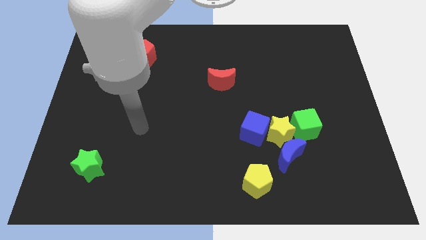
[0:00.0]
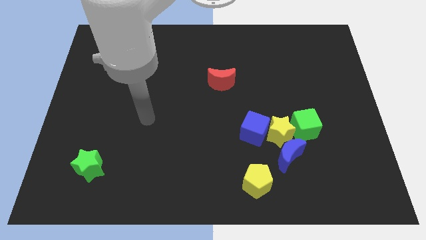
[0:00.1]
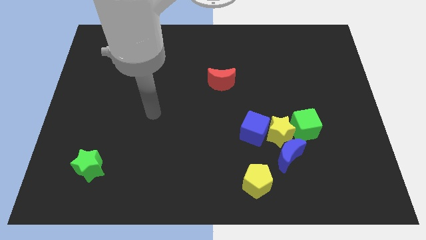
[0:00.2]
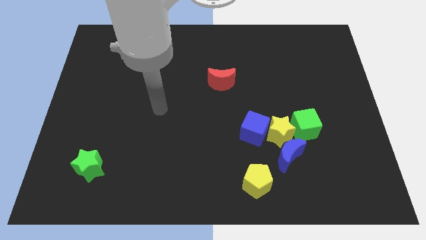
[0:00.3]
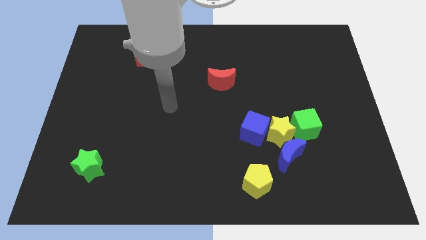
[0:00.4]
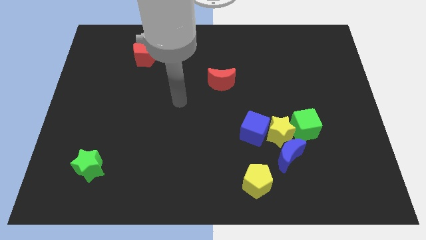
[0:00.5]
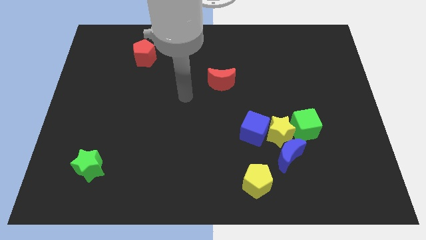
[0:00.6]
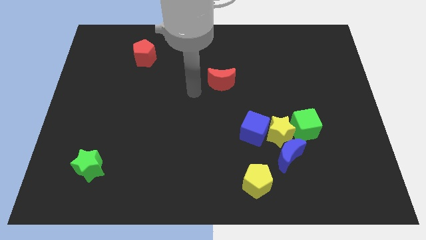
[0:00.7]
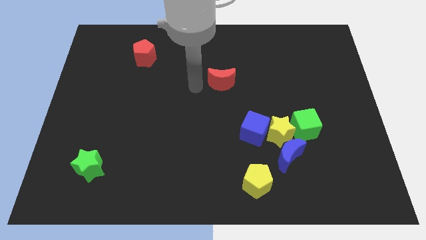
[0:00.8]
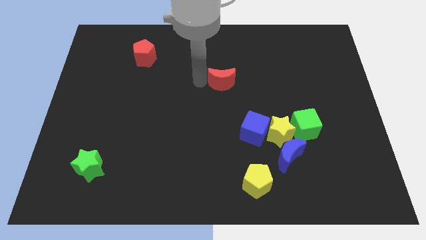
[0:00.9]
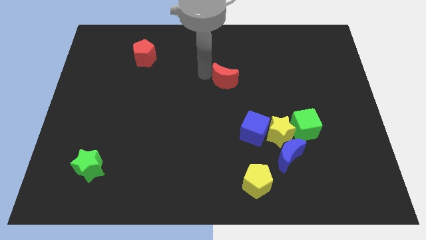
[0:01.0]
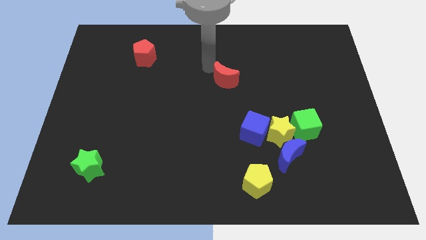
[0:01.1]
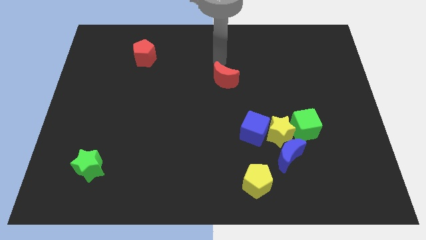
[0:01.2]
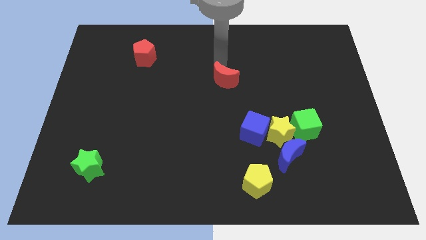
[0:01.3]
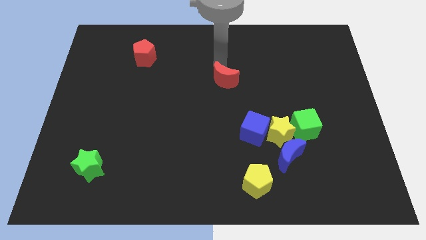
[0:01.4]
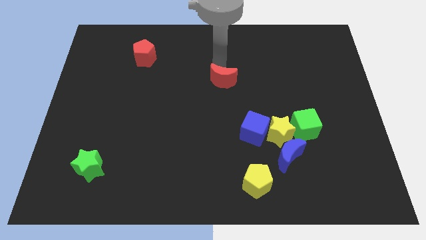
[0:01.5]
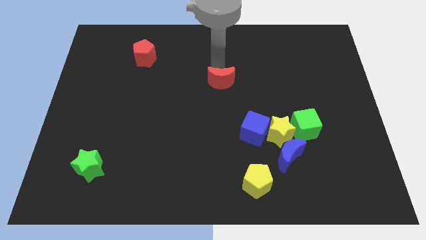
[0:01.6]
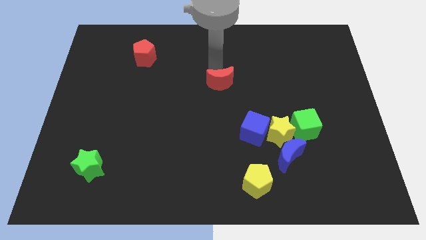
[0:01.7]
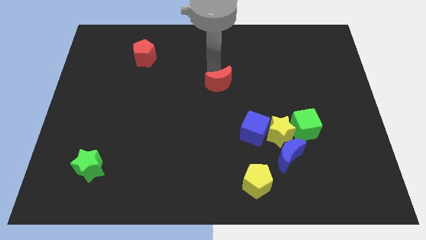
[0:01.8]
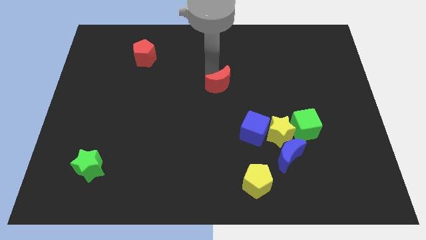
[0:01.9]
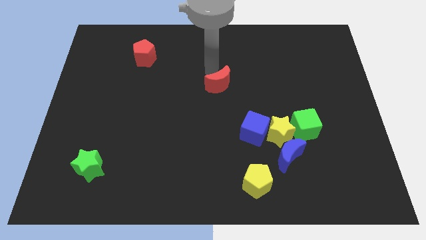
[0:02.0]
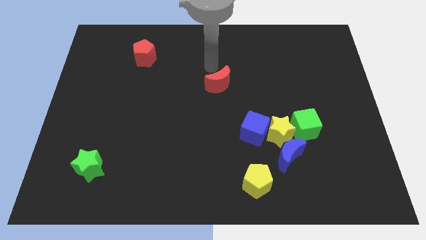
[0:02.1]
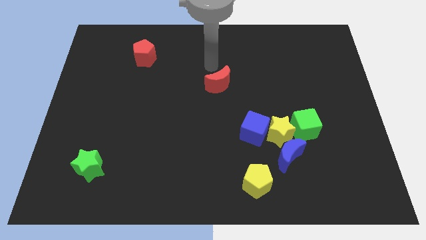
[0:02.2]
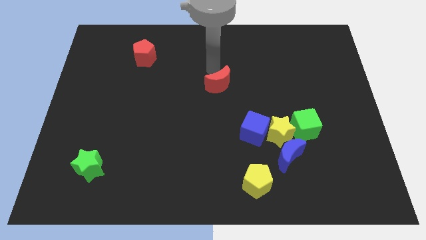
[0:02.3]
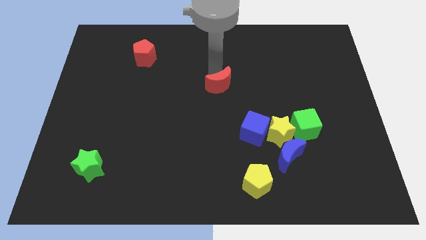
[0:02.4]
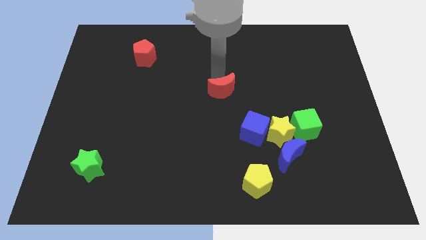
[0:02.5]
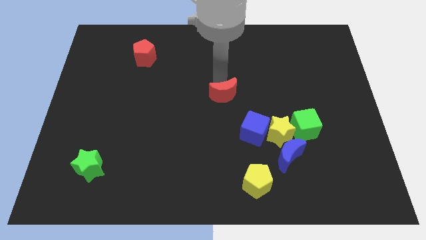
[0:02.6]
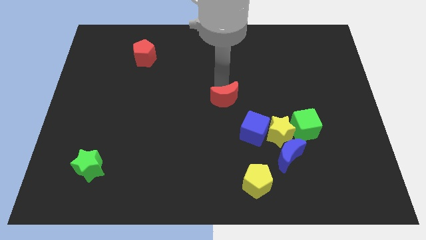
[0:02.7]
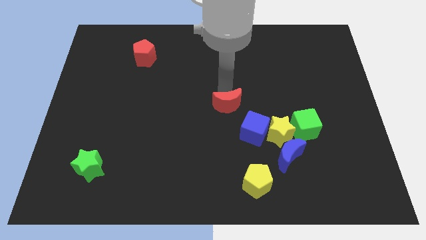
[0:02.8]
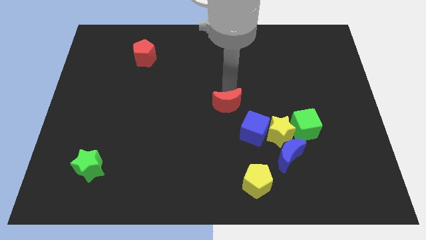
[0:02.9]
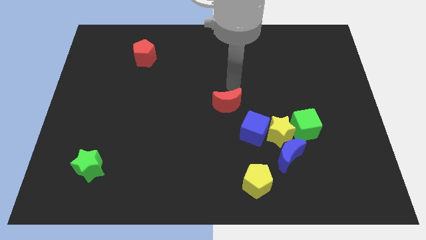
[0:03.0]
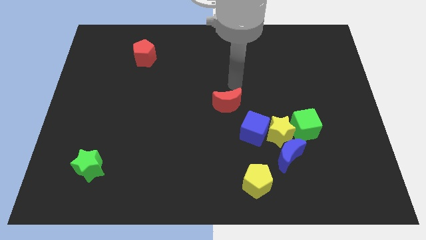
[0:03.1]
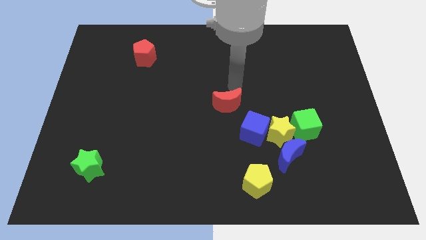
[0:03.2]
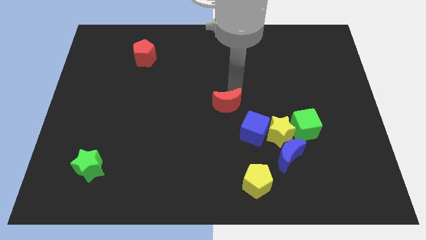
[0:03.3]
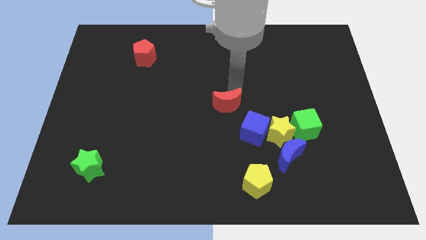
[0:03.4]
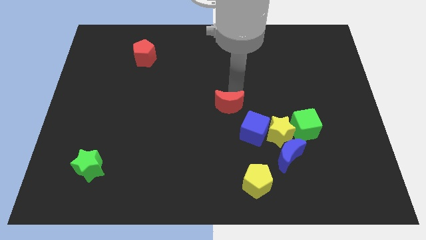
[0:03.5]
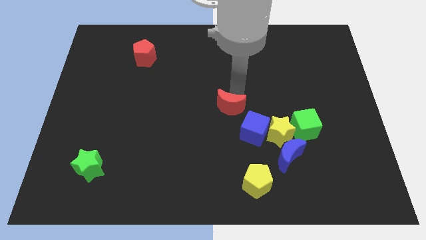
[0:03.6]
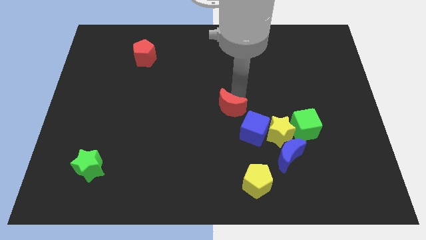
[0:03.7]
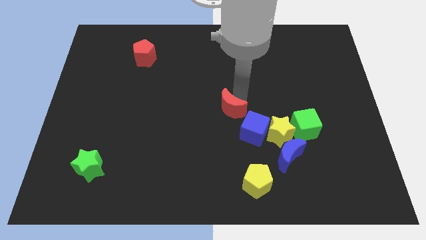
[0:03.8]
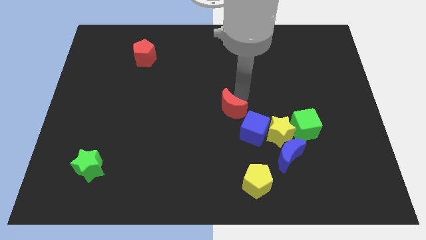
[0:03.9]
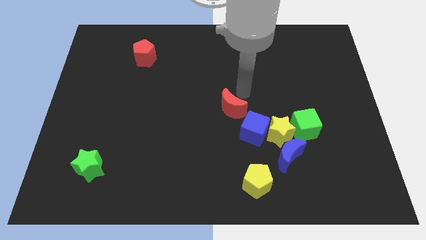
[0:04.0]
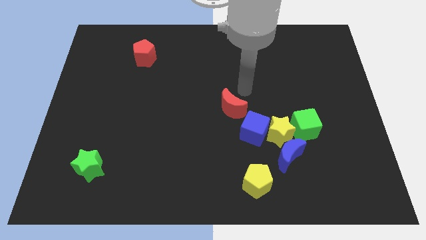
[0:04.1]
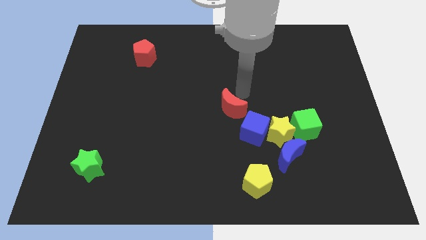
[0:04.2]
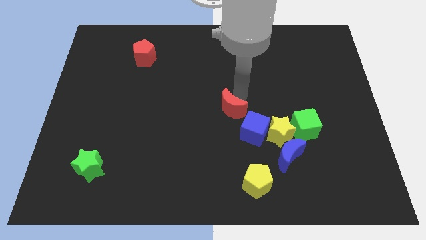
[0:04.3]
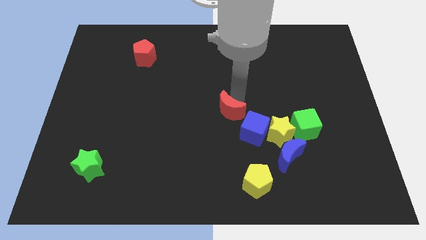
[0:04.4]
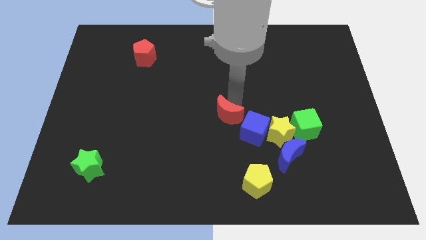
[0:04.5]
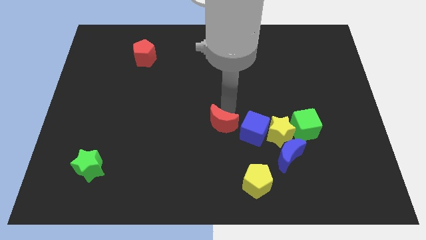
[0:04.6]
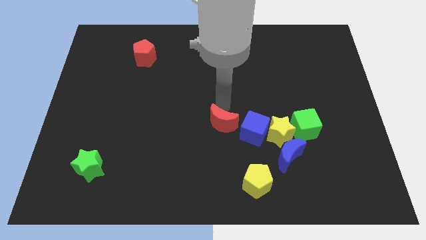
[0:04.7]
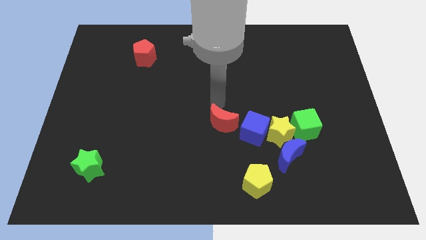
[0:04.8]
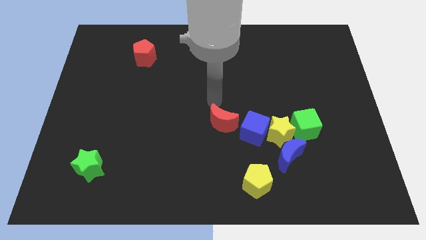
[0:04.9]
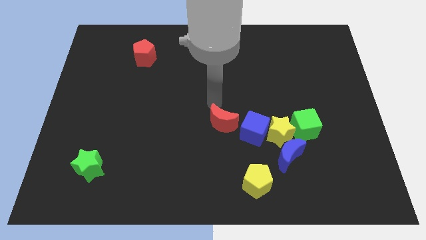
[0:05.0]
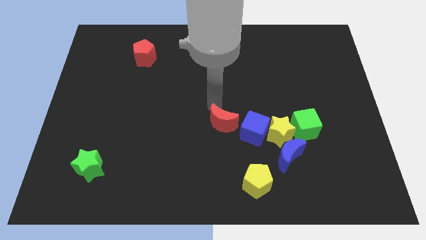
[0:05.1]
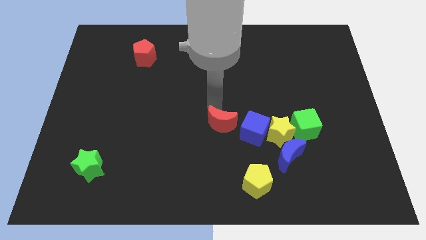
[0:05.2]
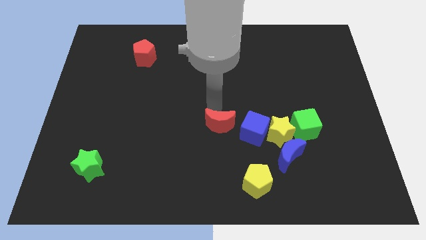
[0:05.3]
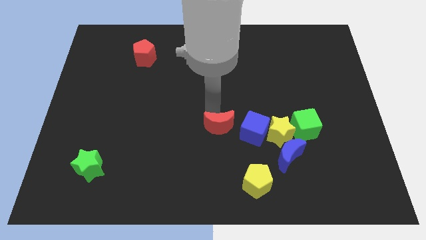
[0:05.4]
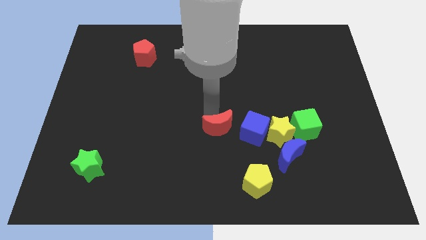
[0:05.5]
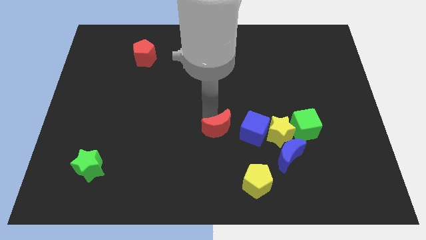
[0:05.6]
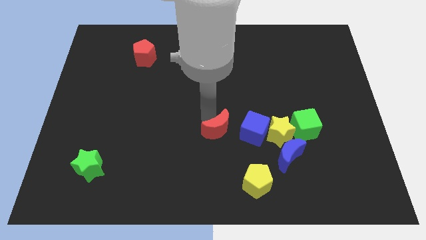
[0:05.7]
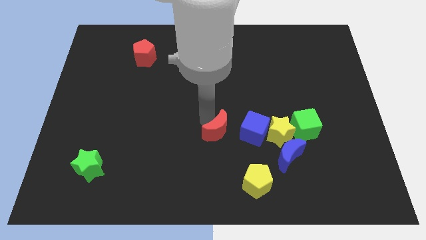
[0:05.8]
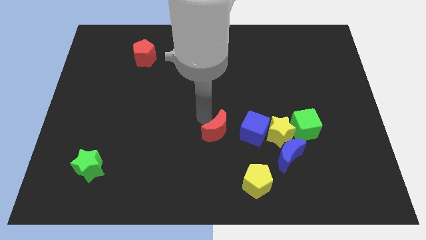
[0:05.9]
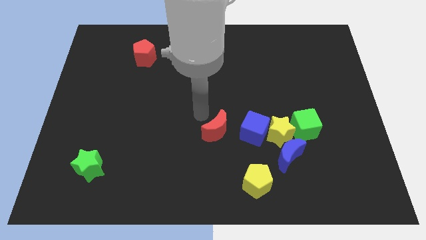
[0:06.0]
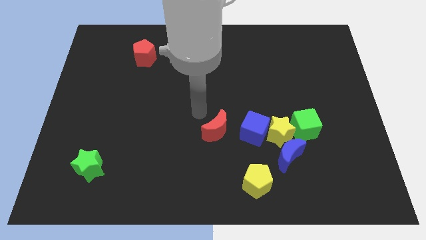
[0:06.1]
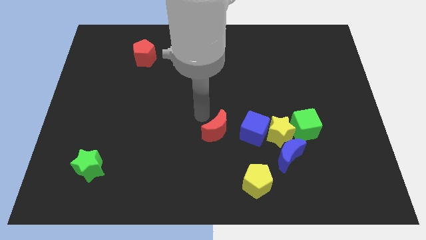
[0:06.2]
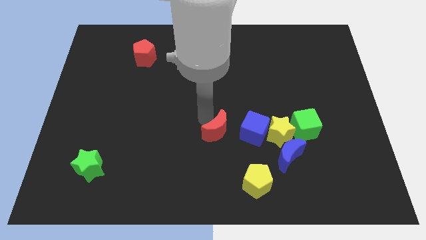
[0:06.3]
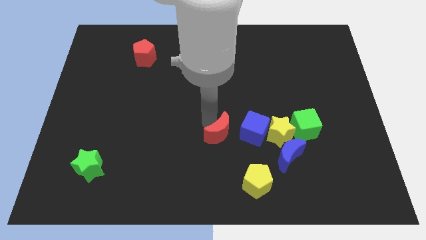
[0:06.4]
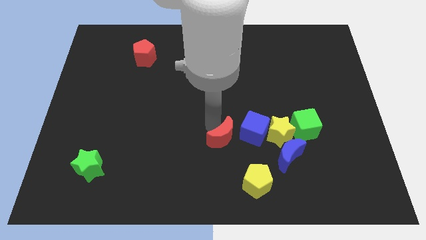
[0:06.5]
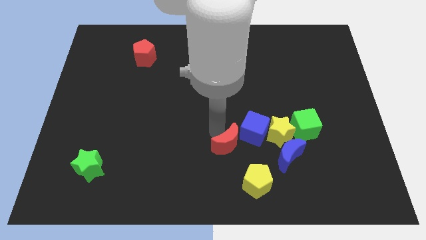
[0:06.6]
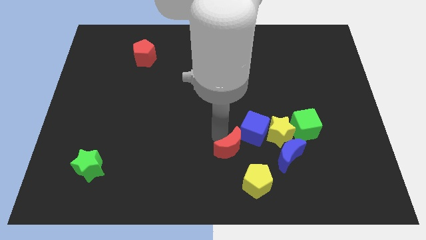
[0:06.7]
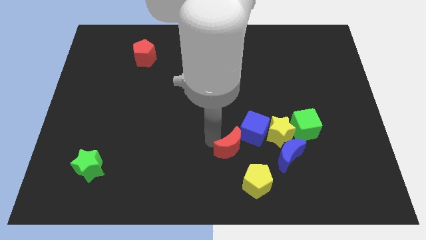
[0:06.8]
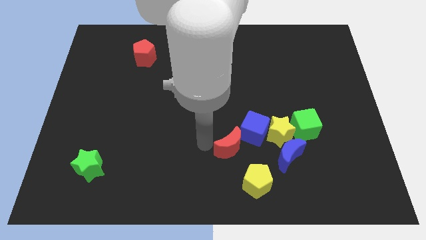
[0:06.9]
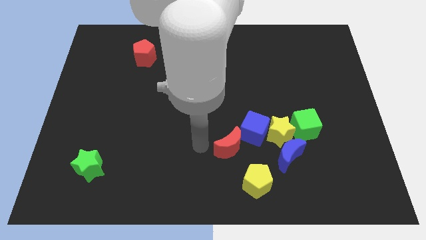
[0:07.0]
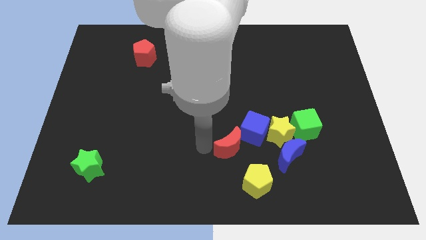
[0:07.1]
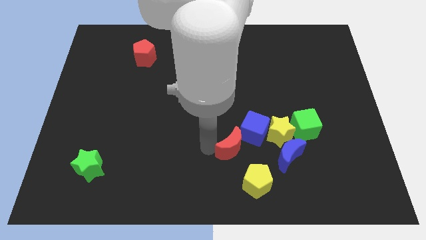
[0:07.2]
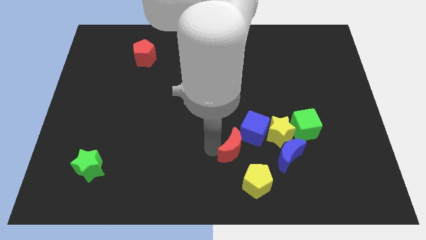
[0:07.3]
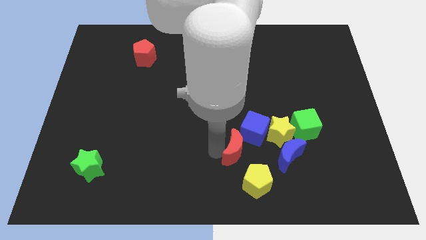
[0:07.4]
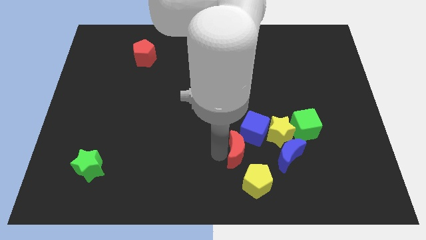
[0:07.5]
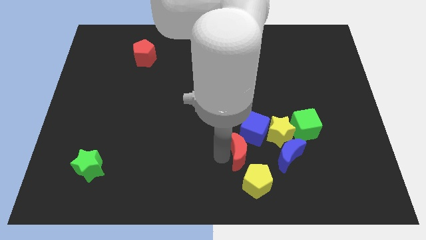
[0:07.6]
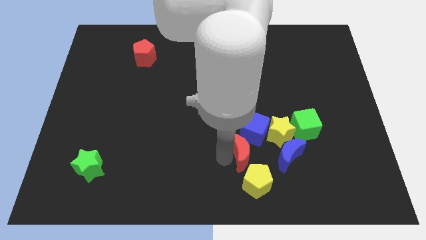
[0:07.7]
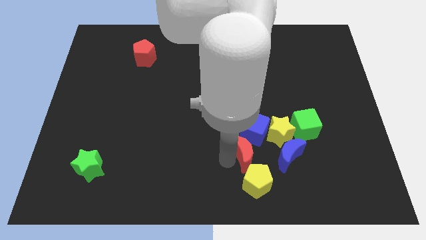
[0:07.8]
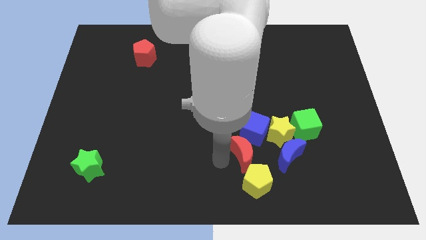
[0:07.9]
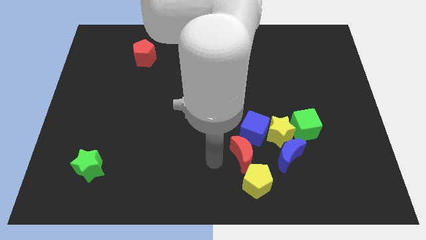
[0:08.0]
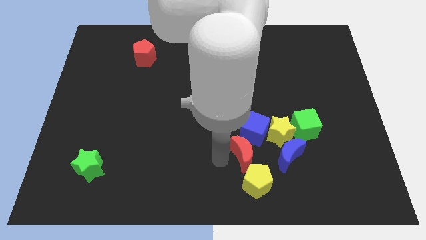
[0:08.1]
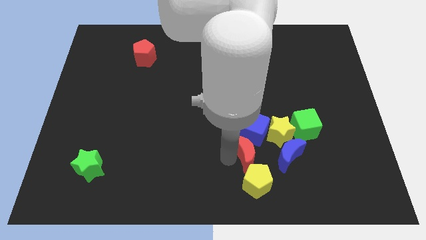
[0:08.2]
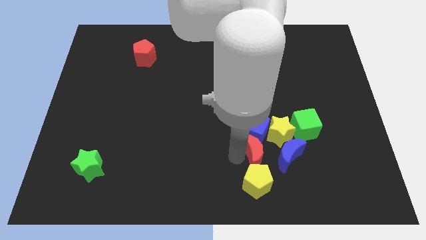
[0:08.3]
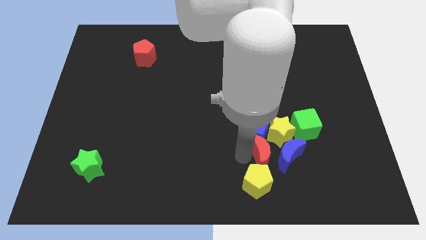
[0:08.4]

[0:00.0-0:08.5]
slide the red moon close to the blue moon
